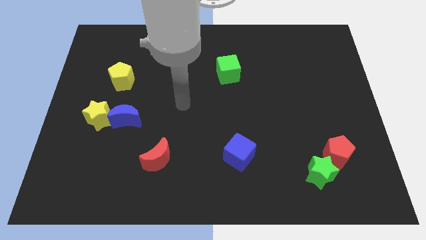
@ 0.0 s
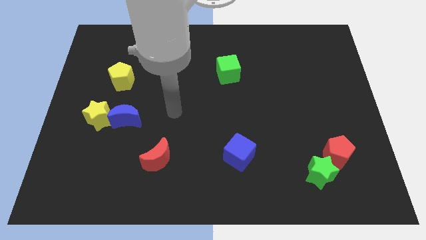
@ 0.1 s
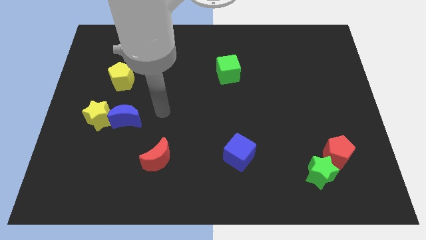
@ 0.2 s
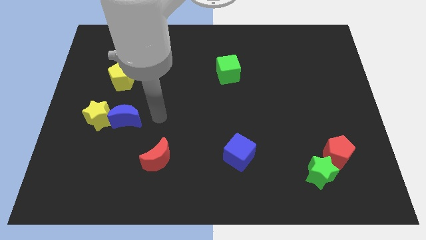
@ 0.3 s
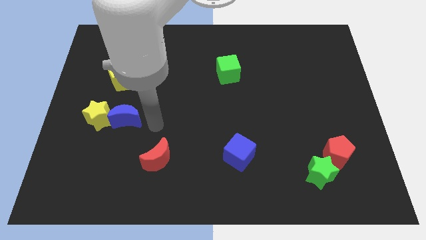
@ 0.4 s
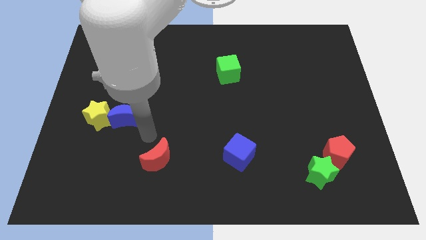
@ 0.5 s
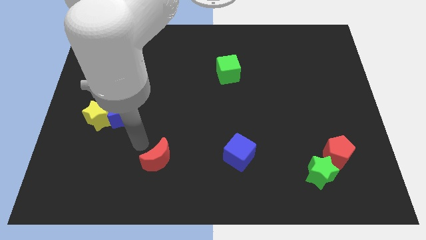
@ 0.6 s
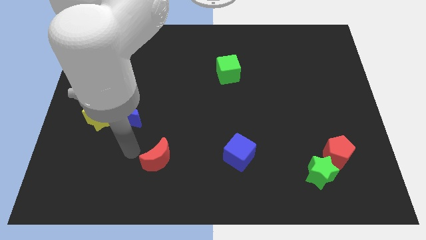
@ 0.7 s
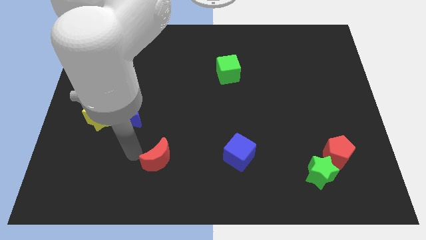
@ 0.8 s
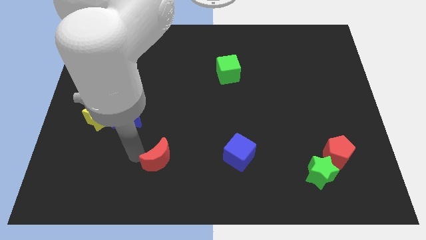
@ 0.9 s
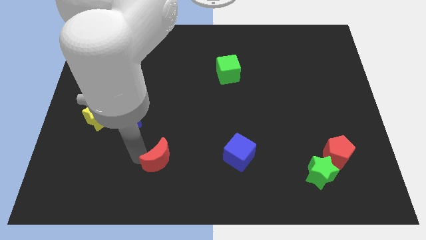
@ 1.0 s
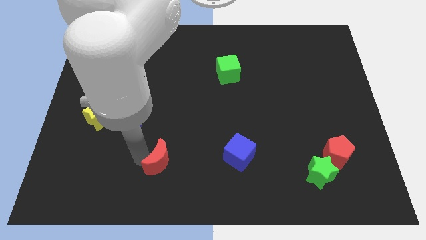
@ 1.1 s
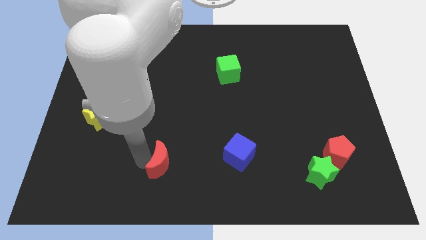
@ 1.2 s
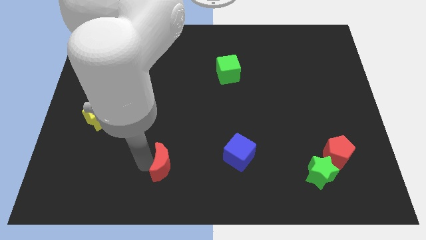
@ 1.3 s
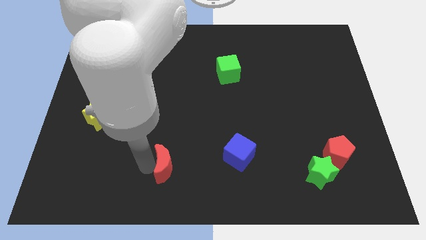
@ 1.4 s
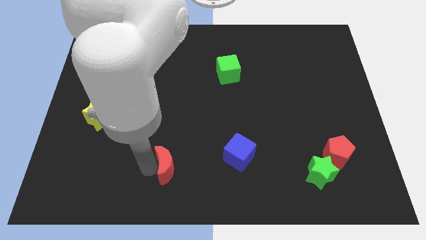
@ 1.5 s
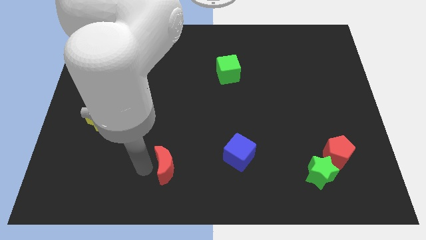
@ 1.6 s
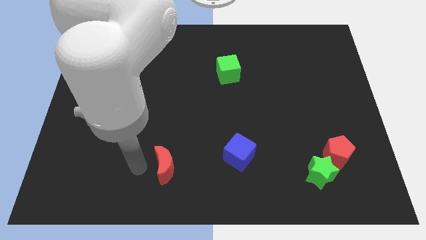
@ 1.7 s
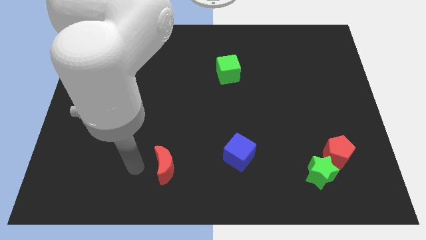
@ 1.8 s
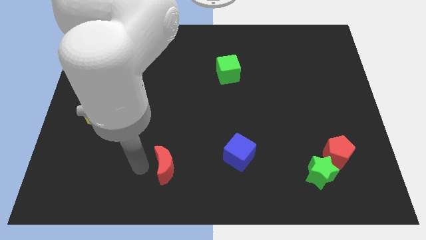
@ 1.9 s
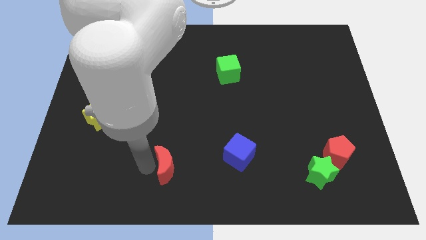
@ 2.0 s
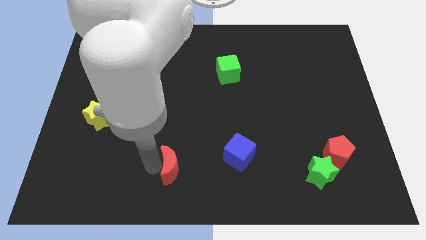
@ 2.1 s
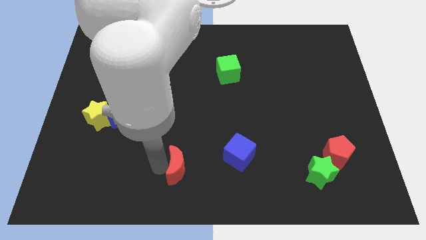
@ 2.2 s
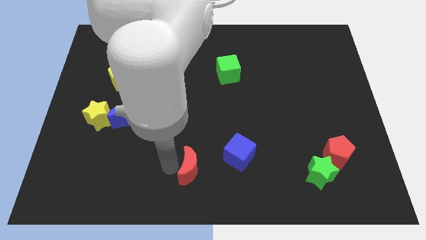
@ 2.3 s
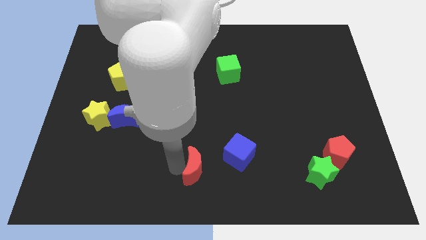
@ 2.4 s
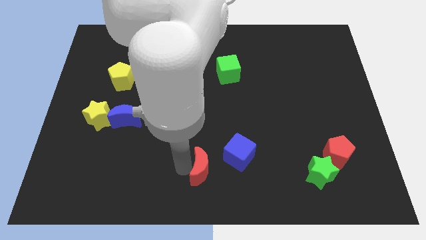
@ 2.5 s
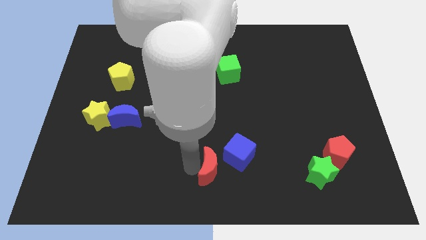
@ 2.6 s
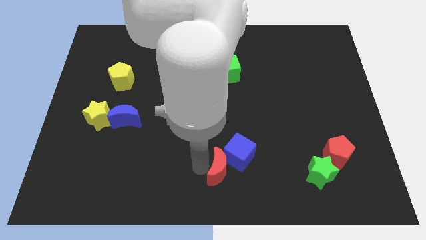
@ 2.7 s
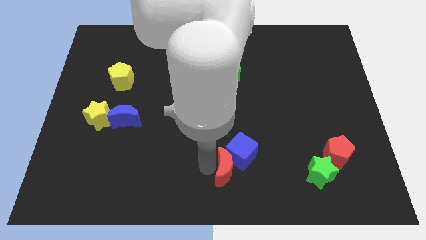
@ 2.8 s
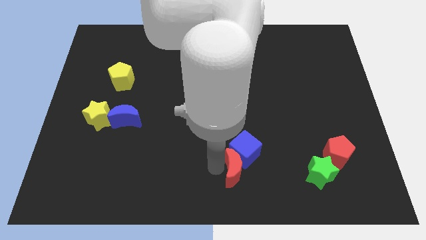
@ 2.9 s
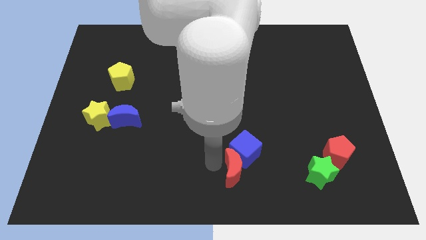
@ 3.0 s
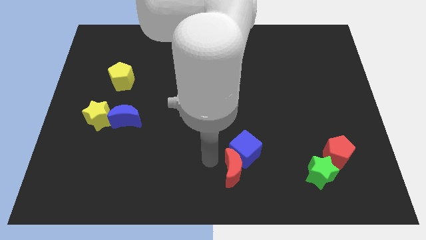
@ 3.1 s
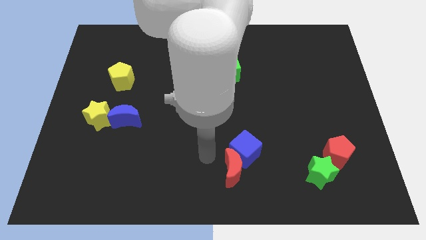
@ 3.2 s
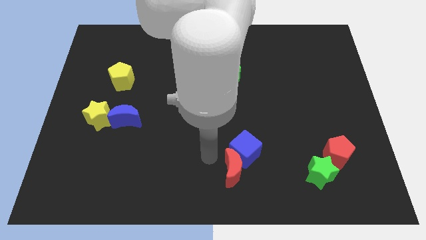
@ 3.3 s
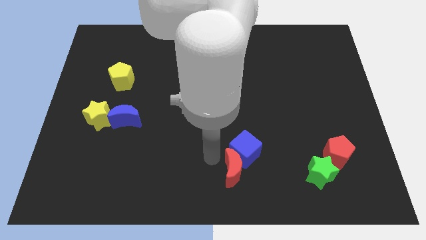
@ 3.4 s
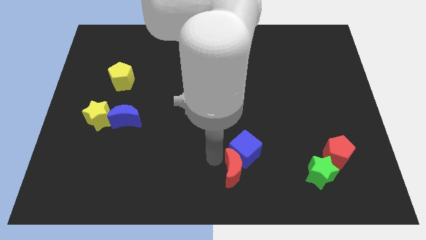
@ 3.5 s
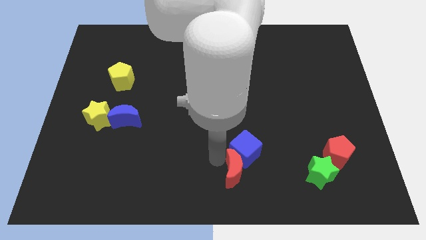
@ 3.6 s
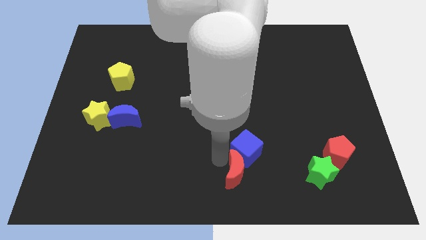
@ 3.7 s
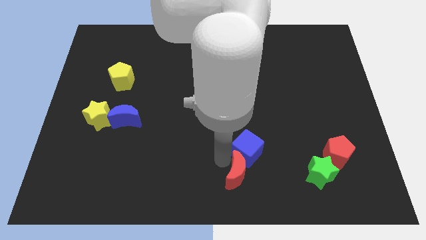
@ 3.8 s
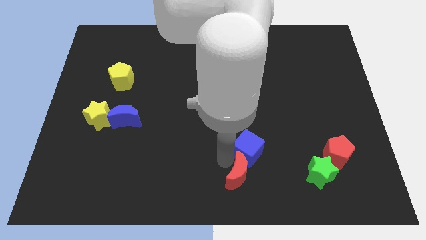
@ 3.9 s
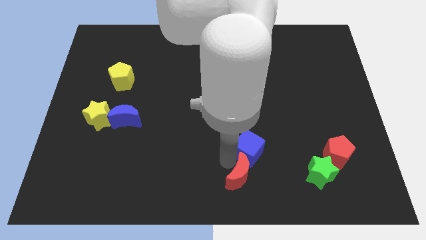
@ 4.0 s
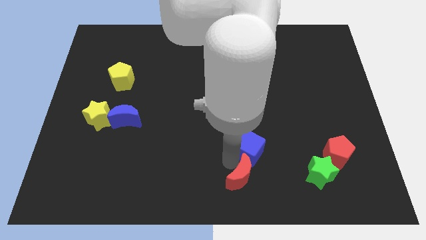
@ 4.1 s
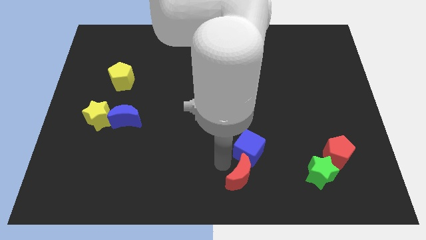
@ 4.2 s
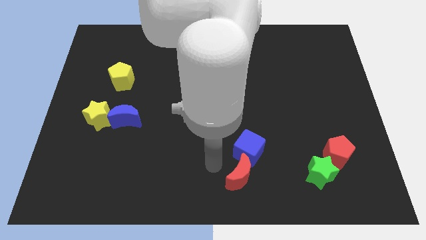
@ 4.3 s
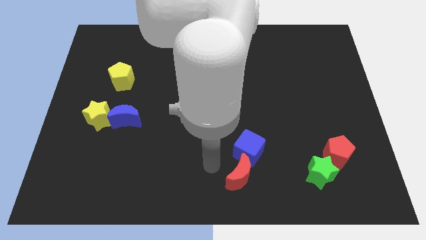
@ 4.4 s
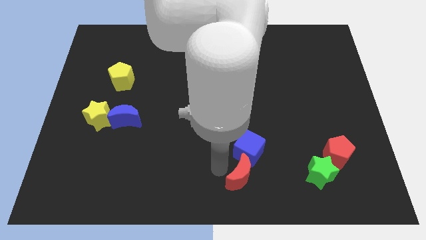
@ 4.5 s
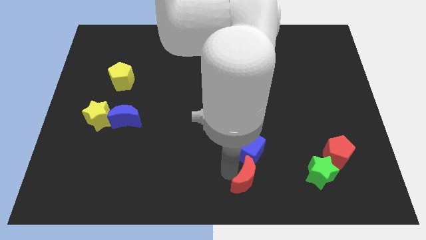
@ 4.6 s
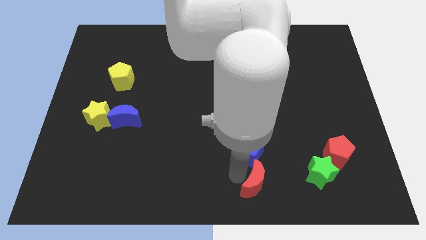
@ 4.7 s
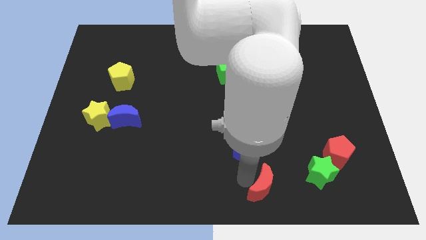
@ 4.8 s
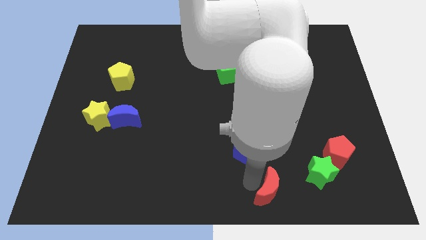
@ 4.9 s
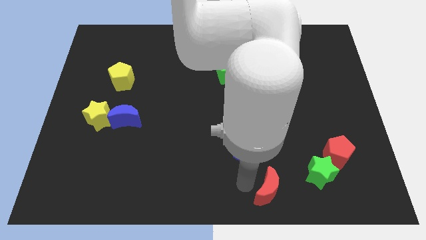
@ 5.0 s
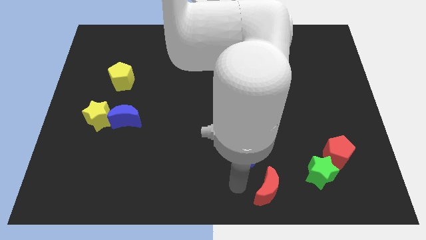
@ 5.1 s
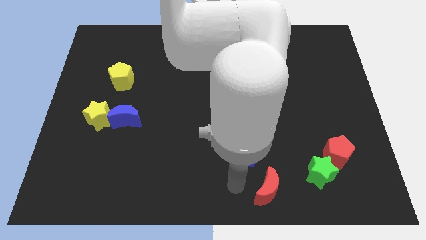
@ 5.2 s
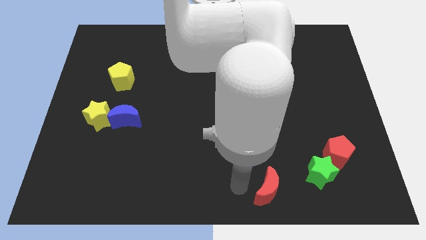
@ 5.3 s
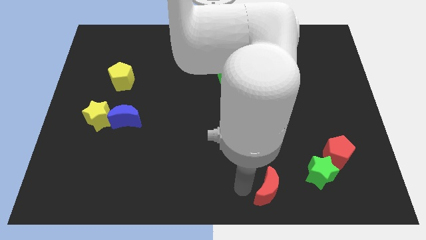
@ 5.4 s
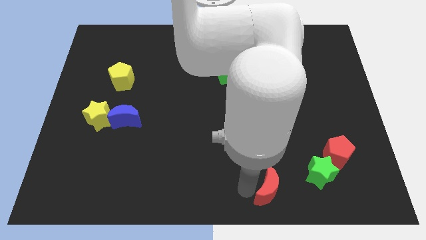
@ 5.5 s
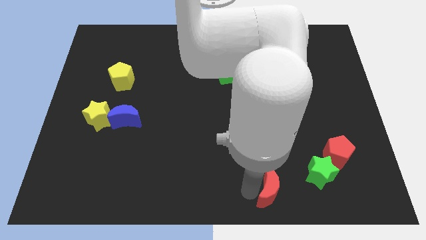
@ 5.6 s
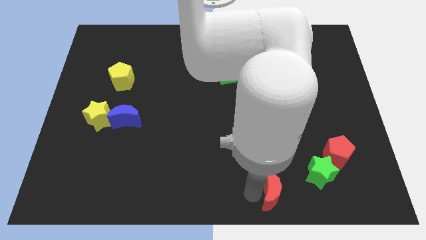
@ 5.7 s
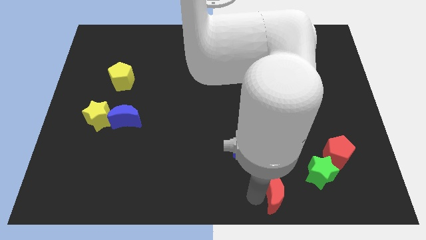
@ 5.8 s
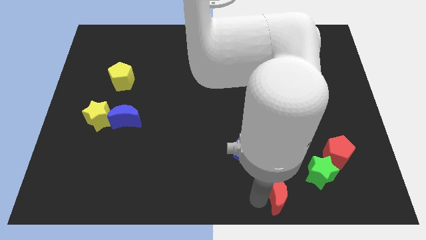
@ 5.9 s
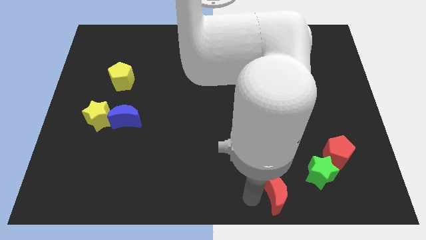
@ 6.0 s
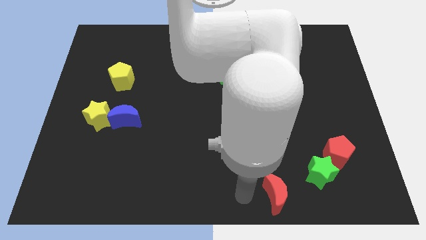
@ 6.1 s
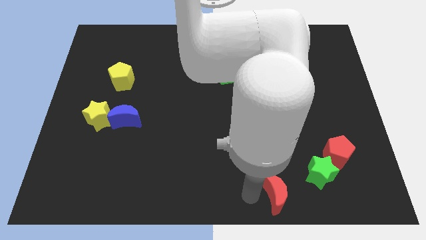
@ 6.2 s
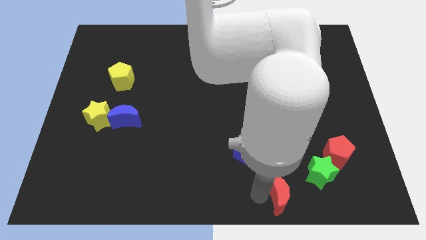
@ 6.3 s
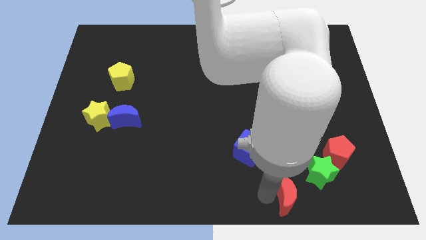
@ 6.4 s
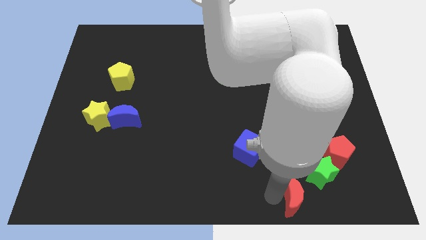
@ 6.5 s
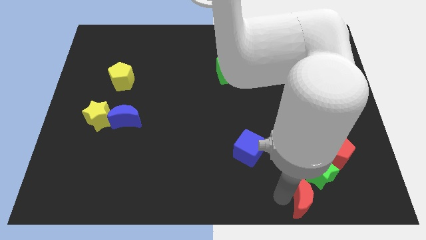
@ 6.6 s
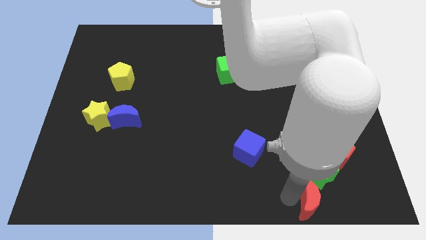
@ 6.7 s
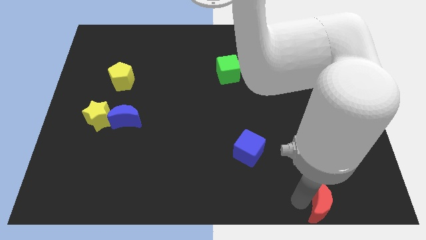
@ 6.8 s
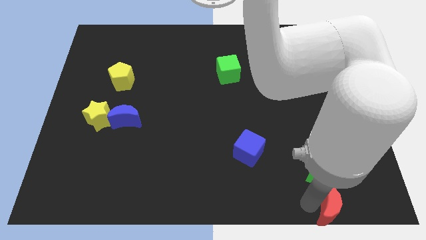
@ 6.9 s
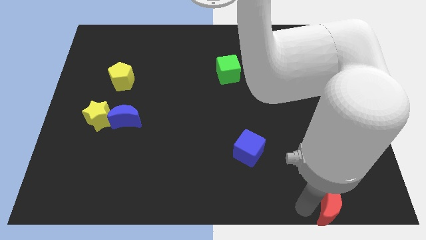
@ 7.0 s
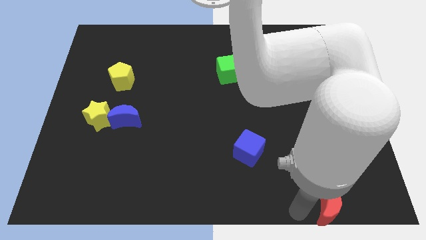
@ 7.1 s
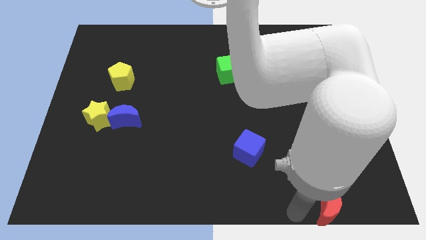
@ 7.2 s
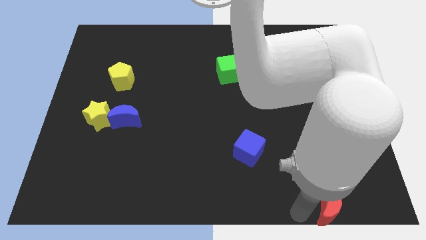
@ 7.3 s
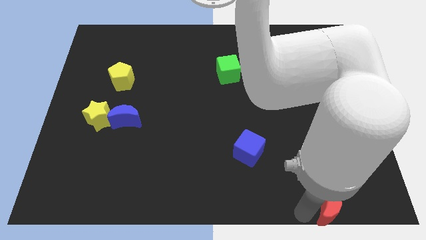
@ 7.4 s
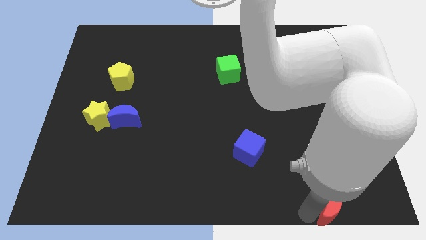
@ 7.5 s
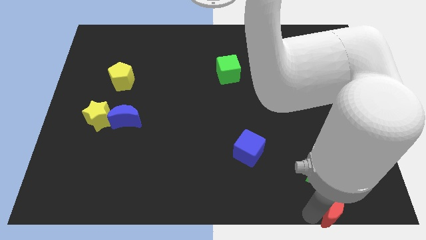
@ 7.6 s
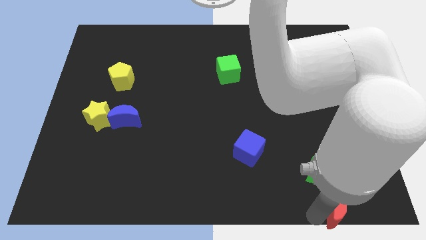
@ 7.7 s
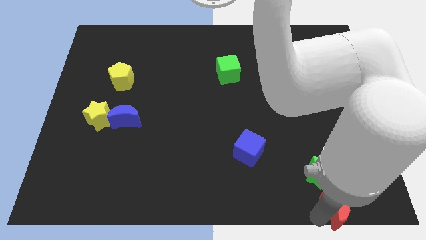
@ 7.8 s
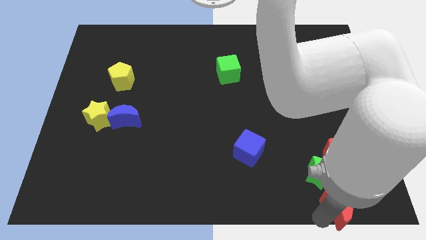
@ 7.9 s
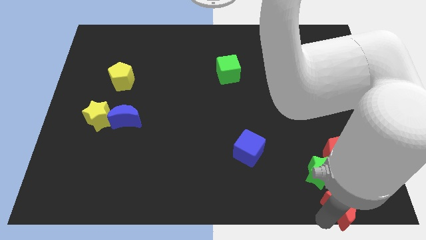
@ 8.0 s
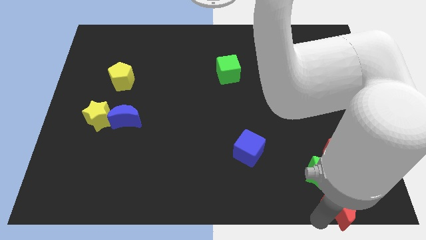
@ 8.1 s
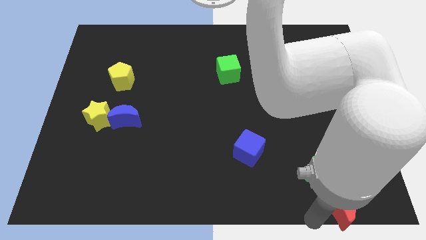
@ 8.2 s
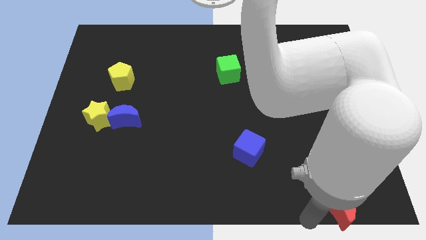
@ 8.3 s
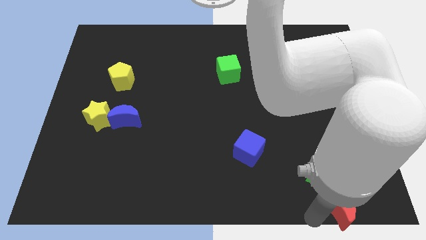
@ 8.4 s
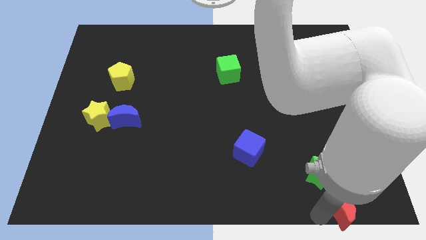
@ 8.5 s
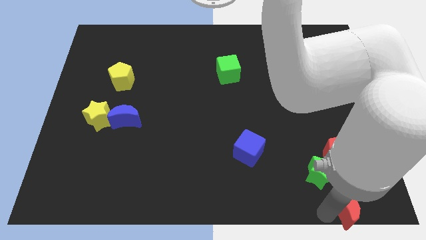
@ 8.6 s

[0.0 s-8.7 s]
slide the red moon to the bottom right
